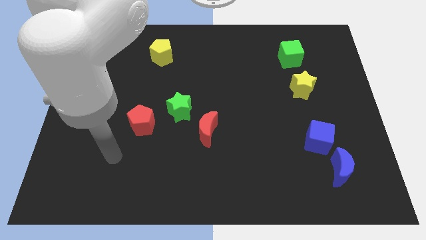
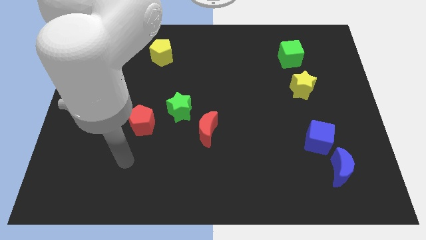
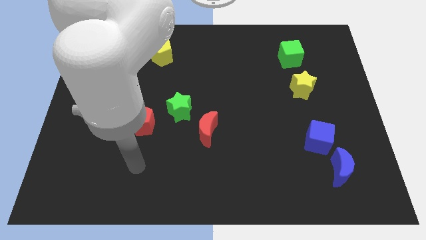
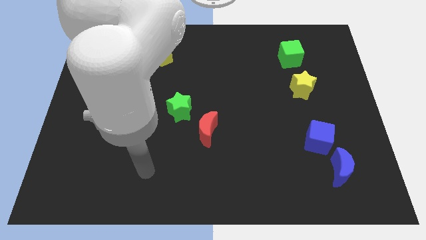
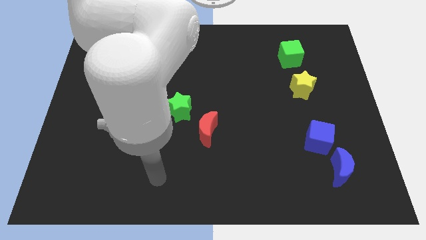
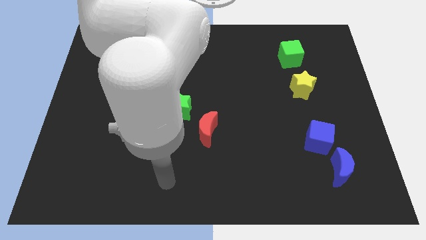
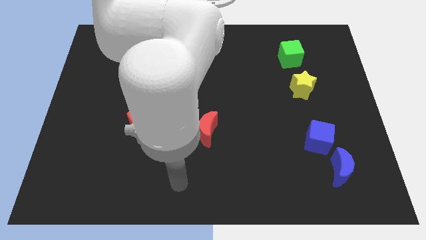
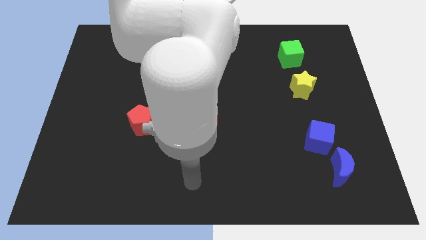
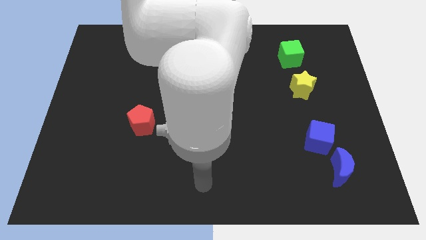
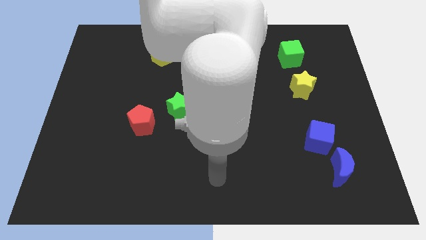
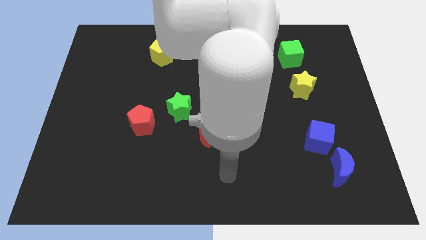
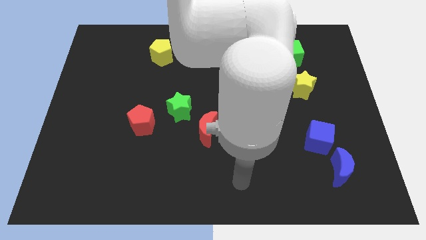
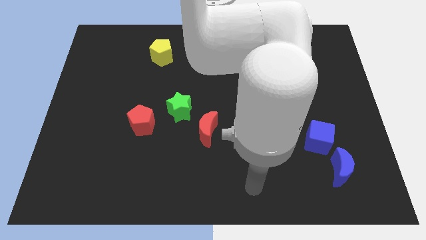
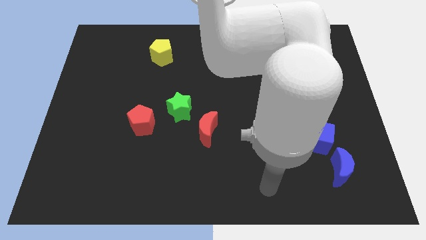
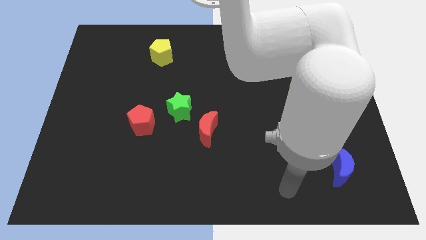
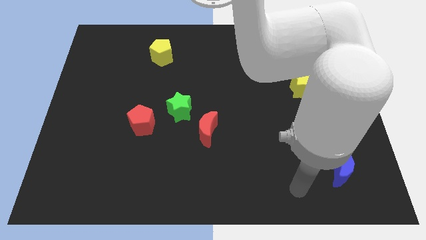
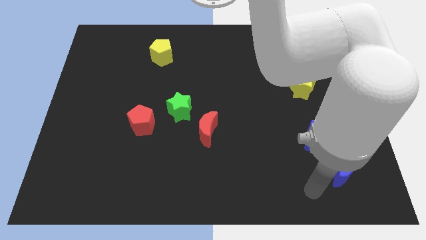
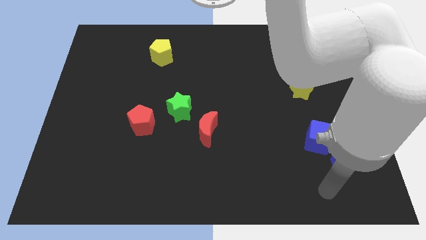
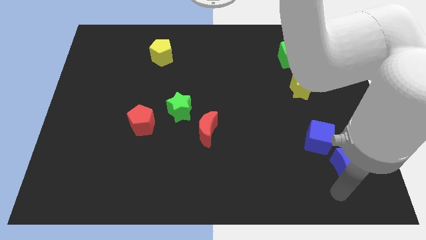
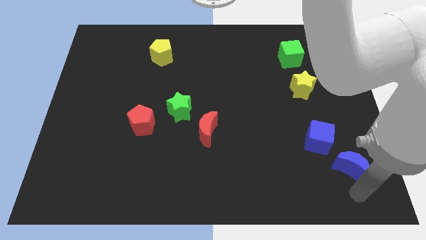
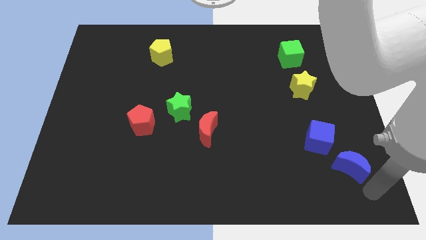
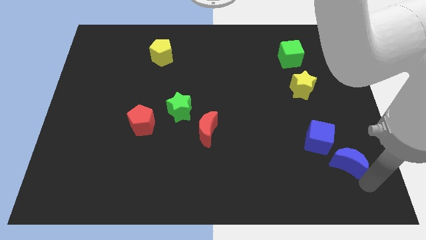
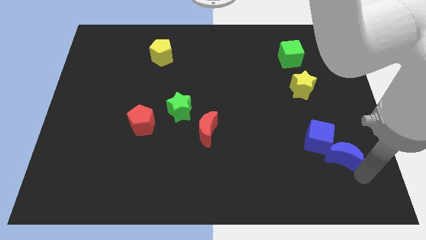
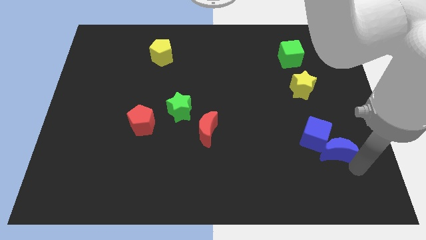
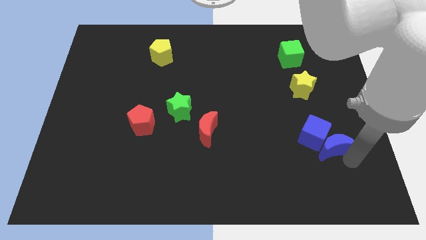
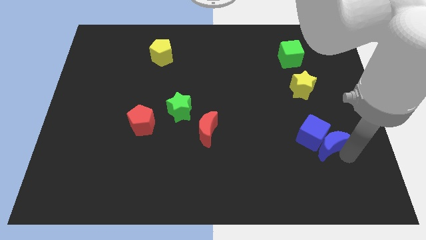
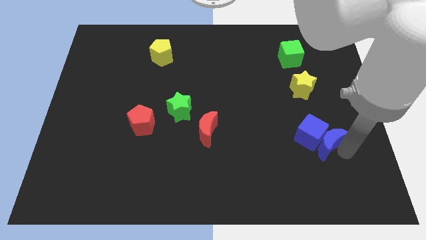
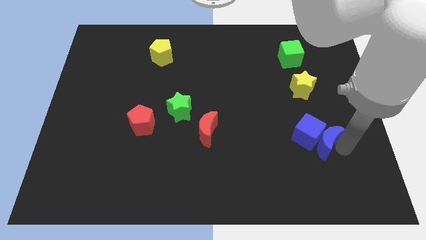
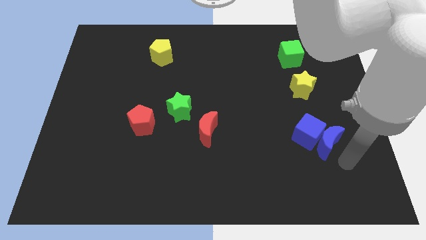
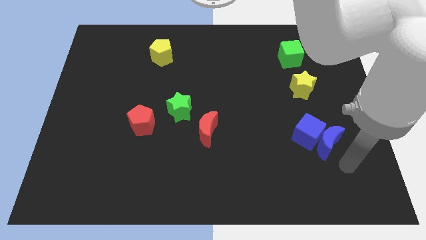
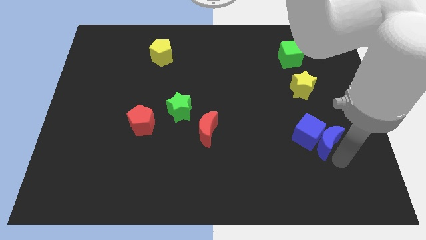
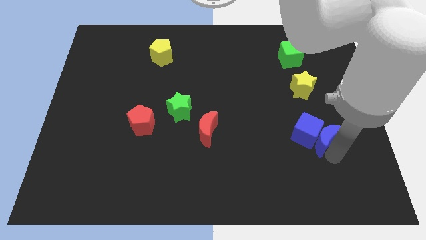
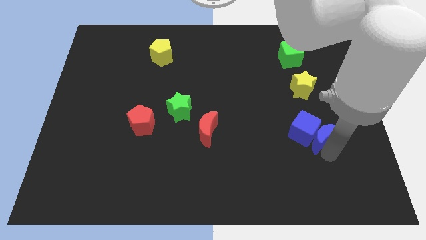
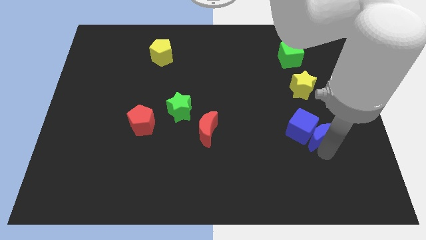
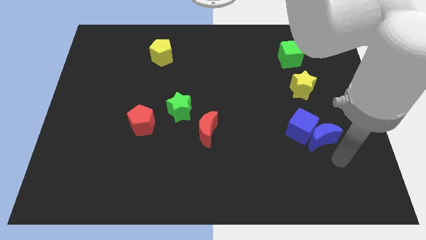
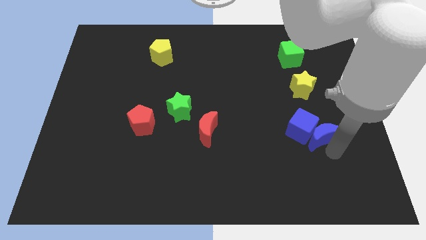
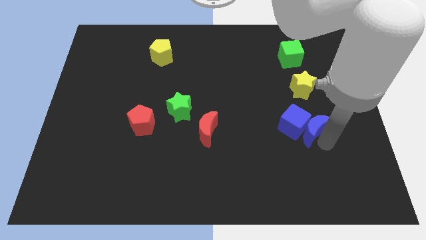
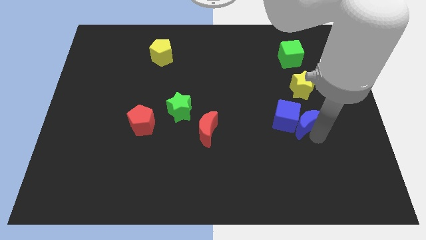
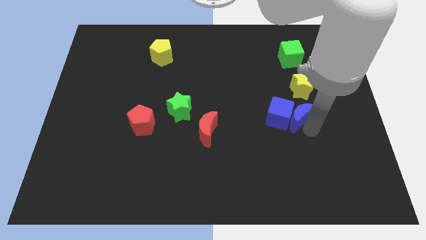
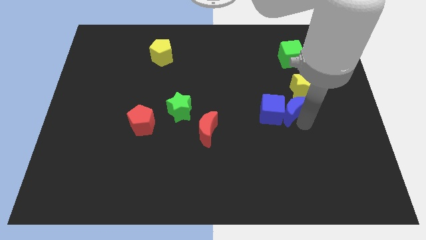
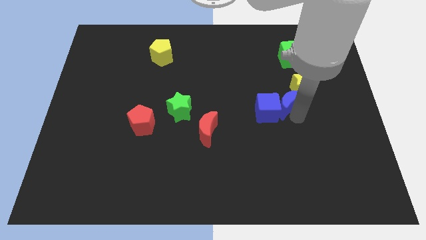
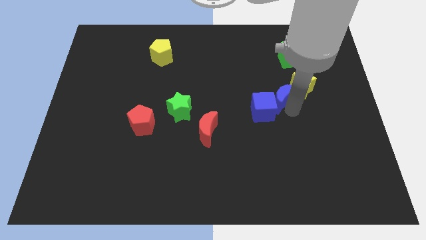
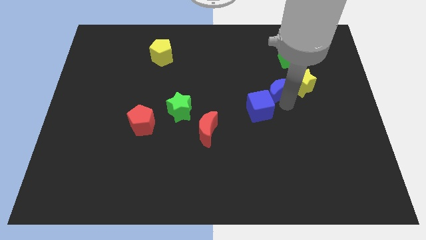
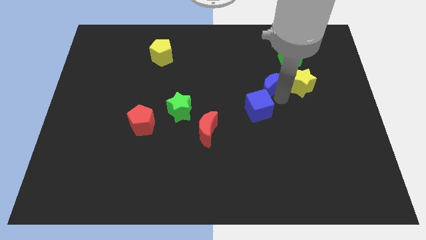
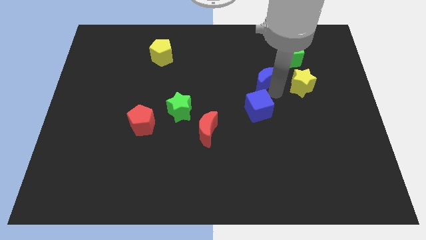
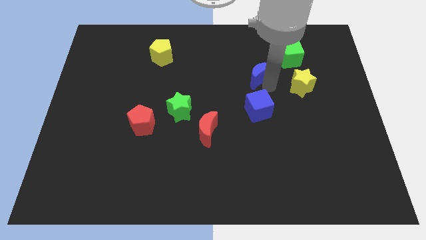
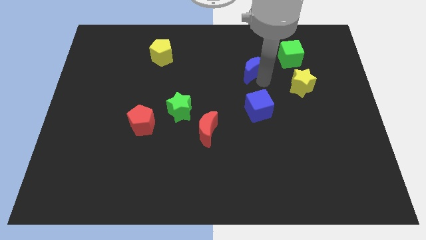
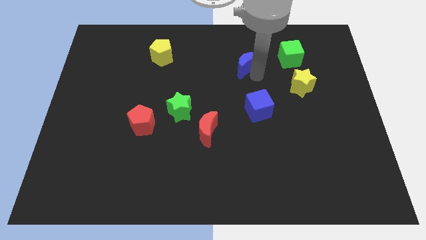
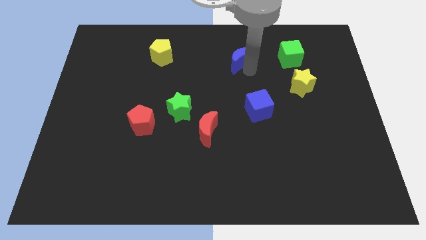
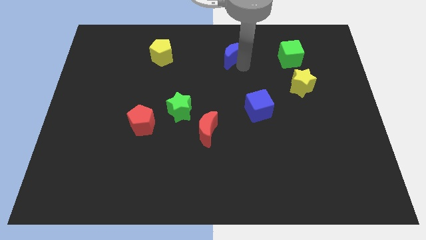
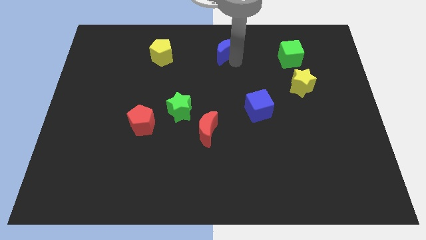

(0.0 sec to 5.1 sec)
slide the blue moon to the top side
